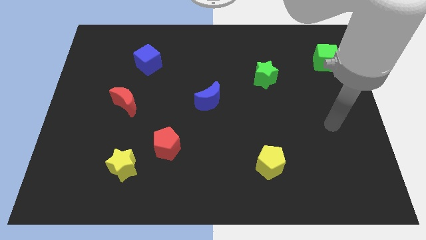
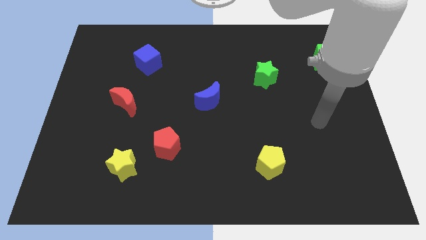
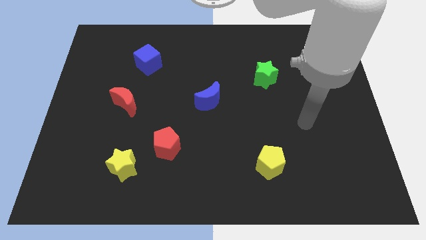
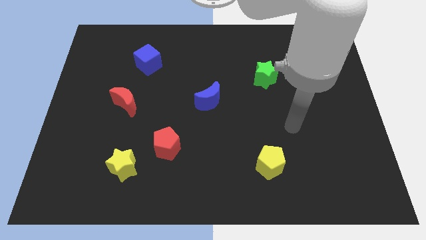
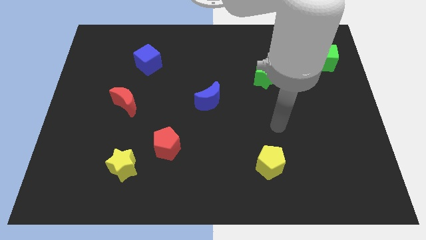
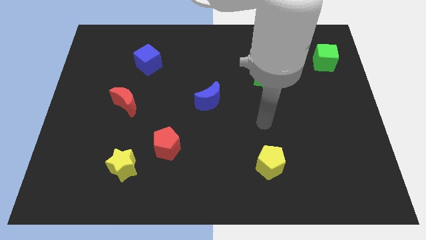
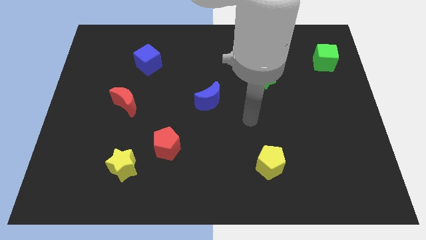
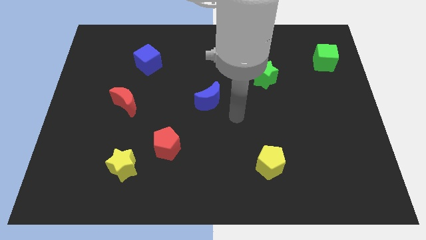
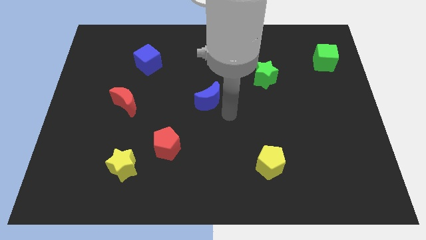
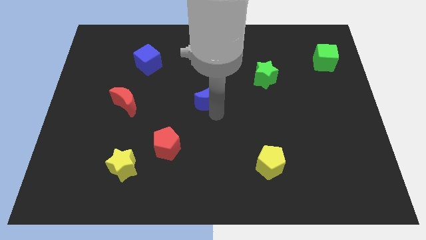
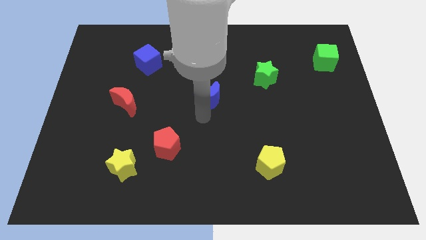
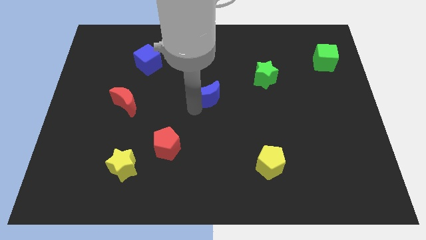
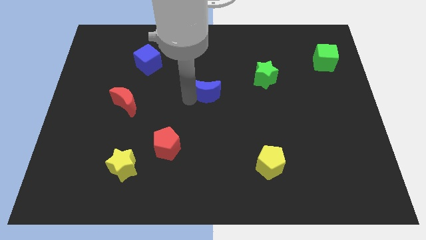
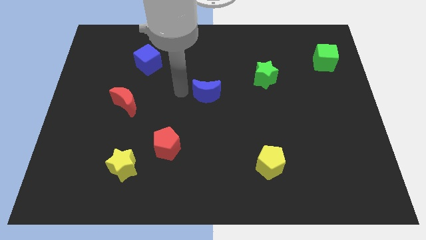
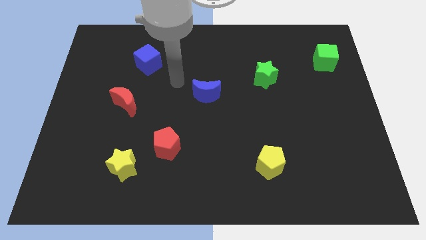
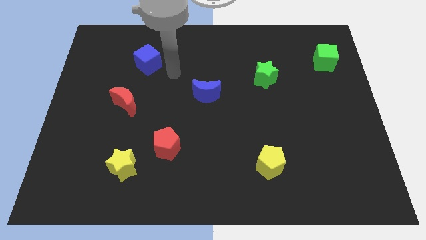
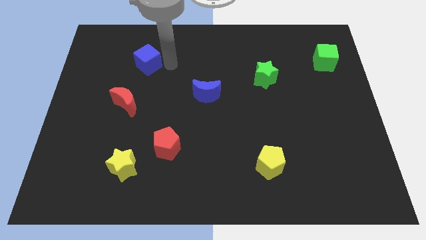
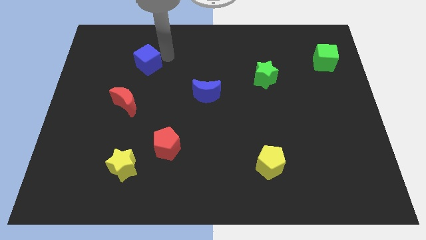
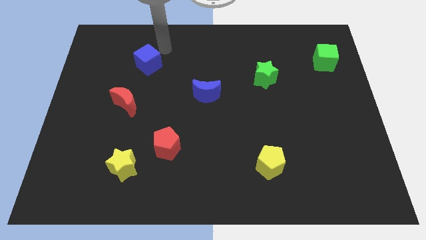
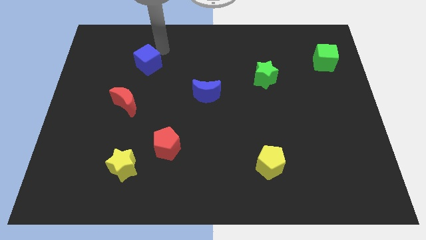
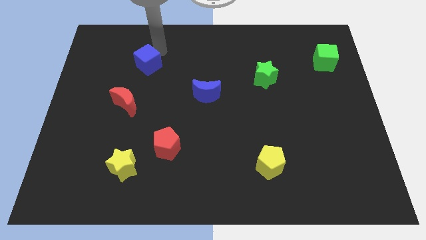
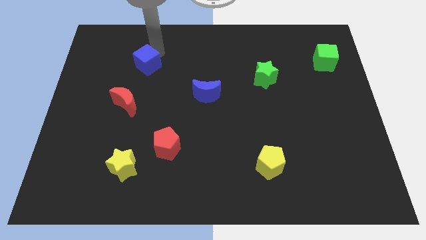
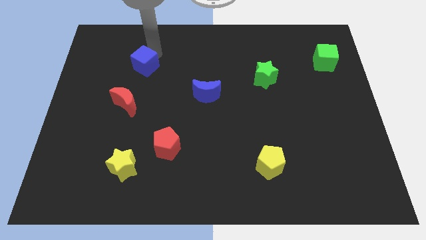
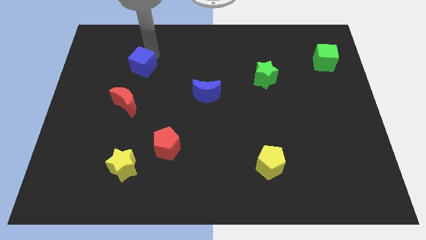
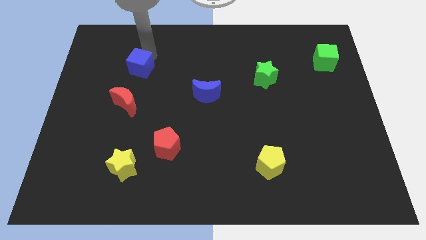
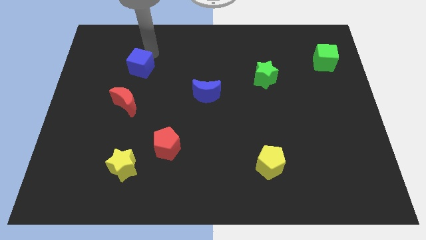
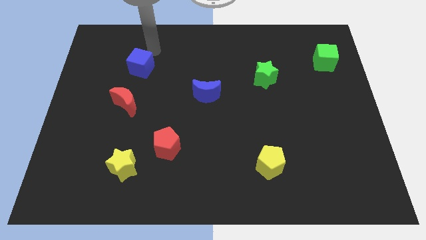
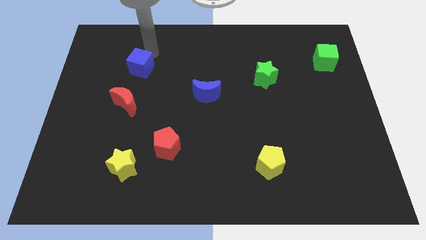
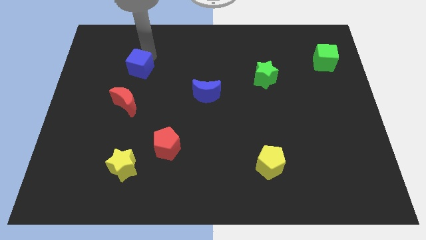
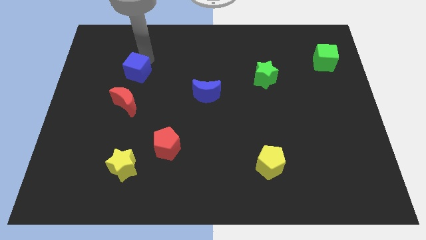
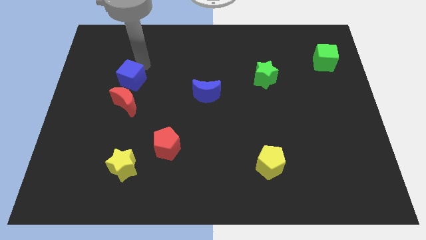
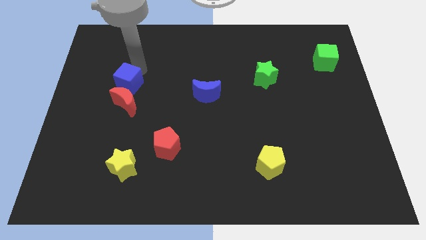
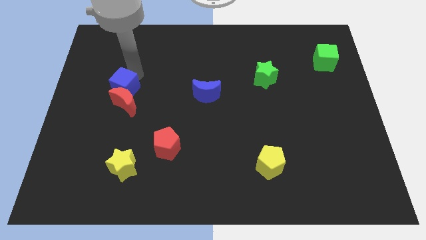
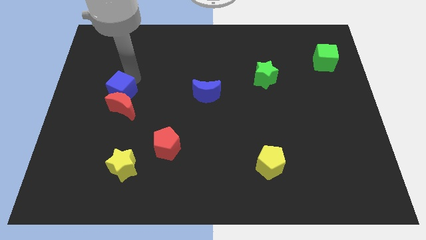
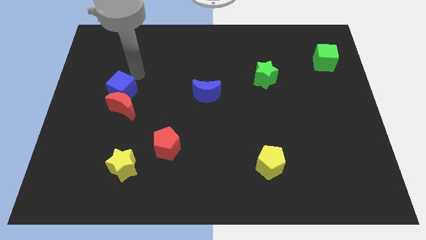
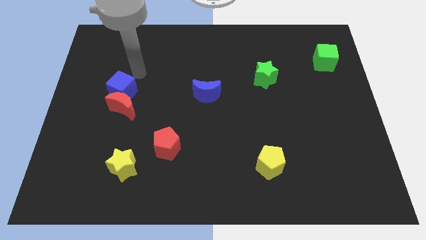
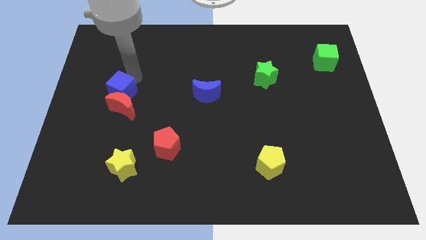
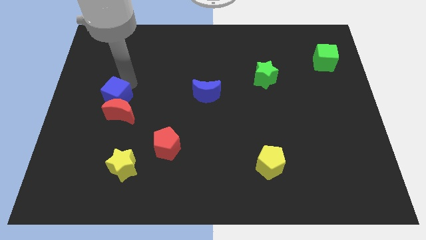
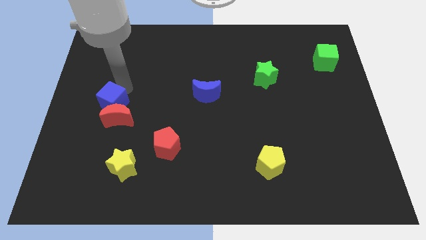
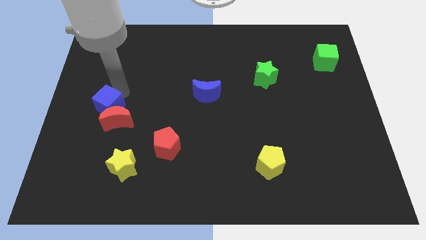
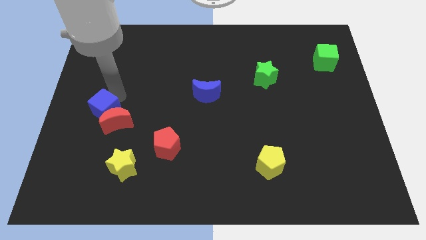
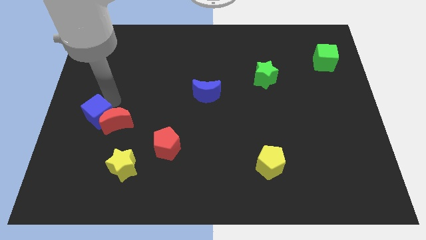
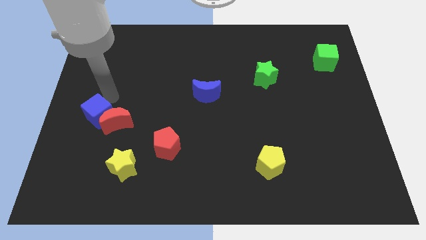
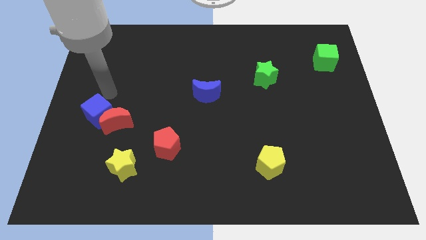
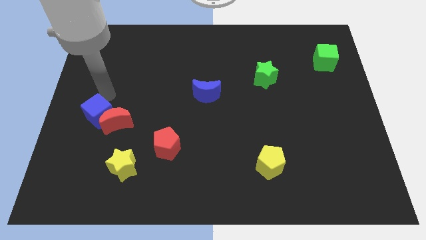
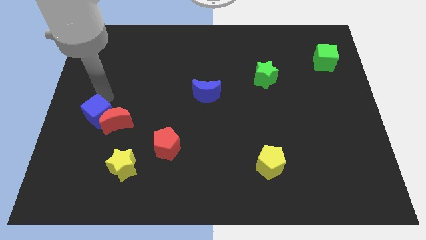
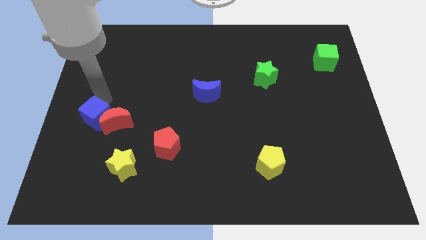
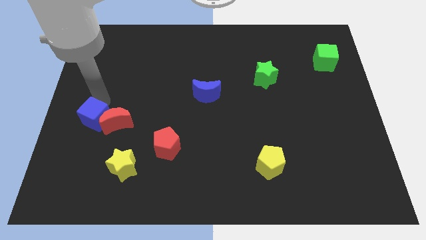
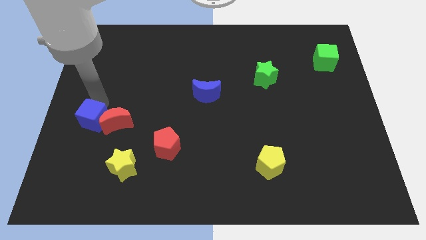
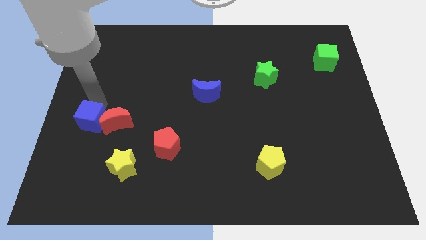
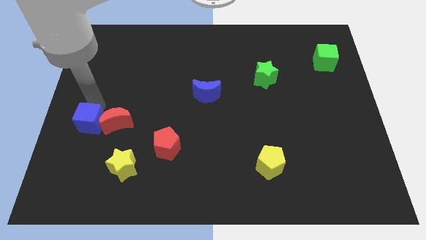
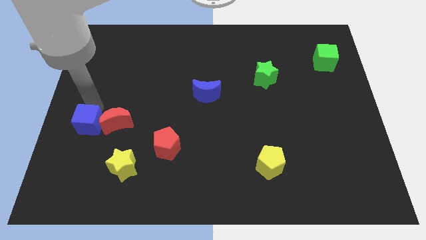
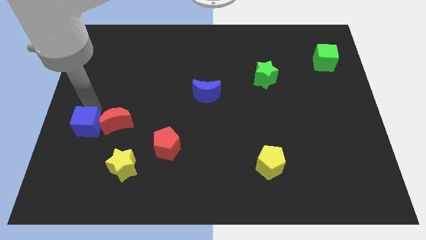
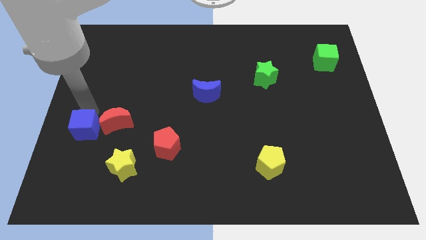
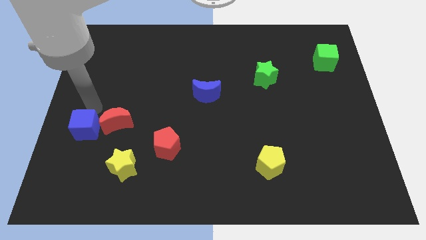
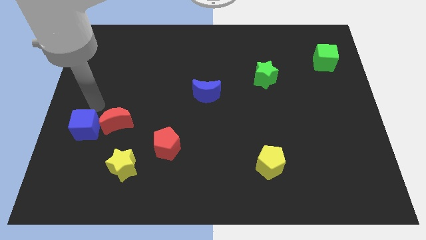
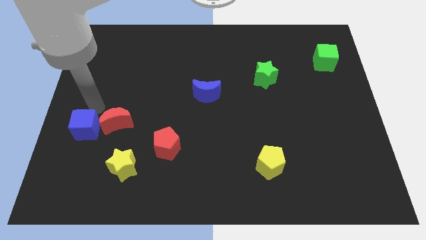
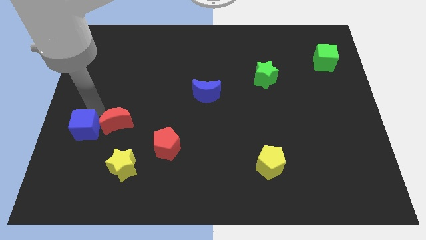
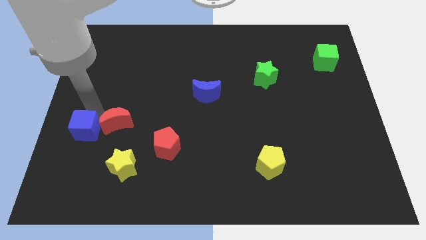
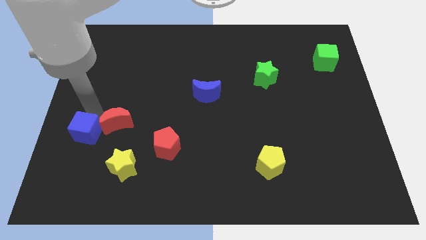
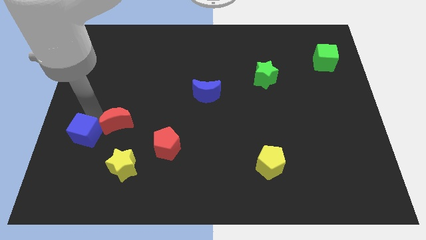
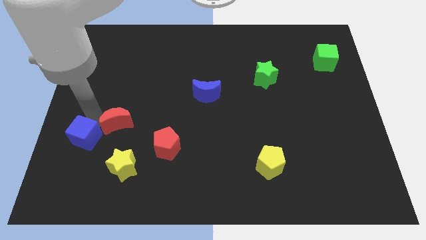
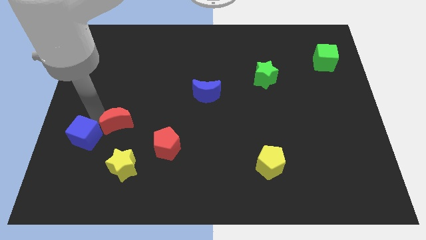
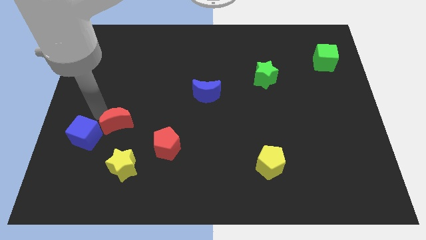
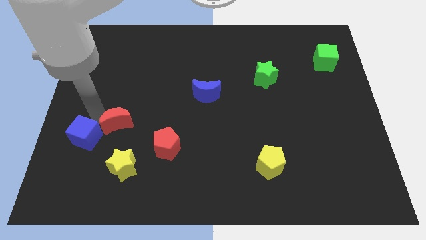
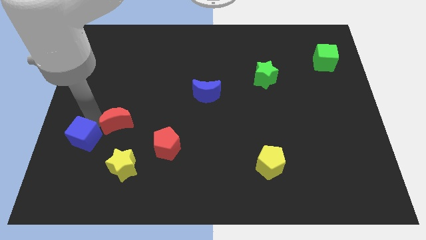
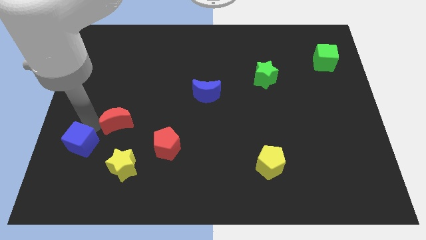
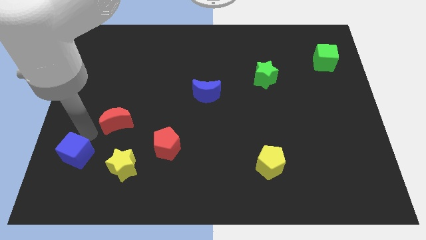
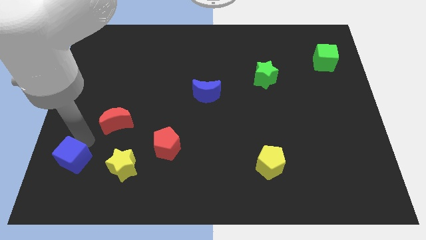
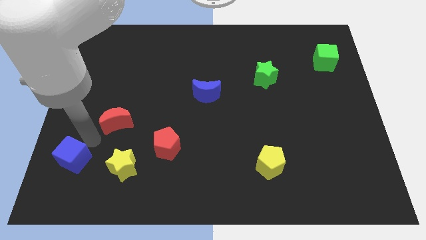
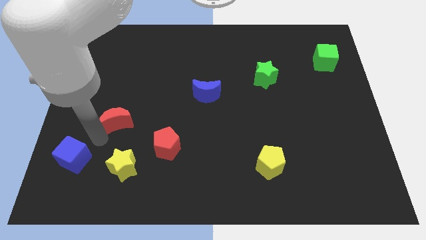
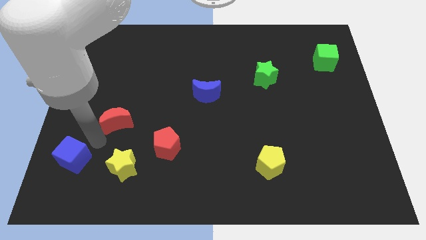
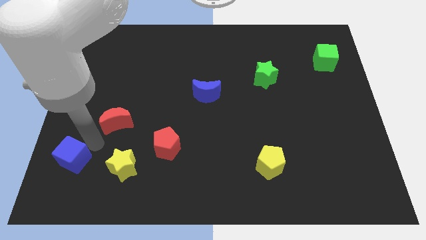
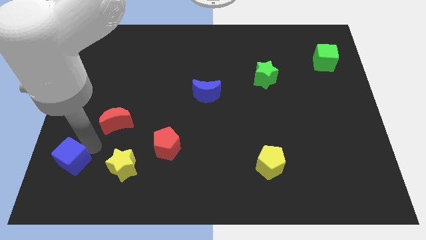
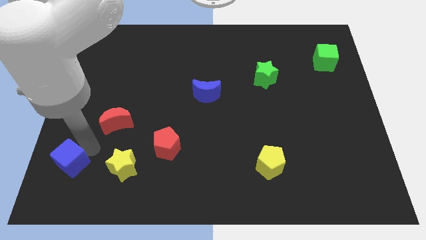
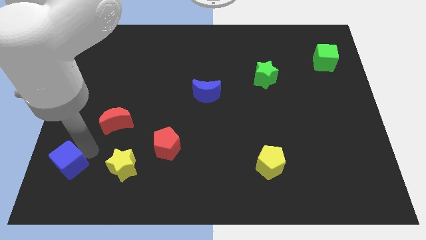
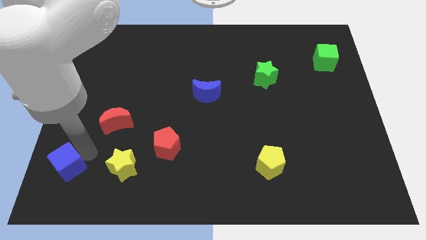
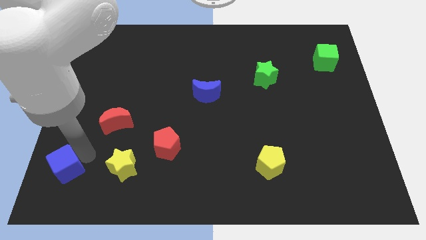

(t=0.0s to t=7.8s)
move the blue cube to the bottom left corner
